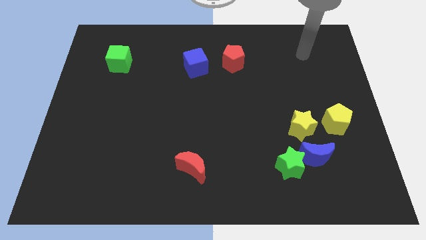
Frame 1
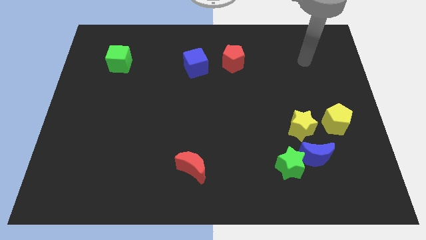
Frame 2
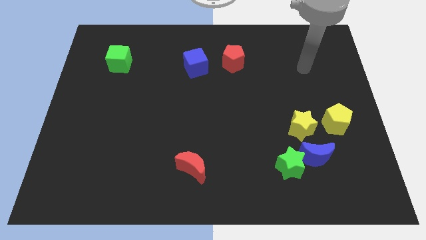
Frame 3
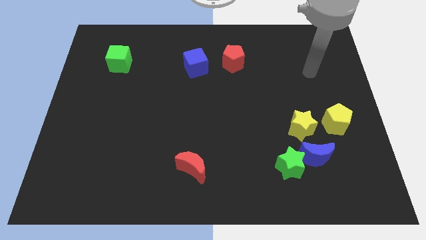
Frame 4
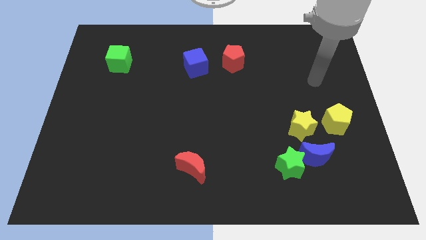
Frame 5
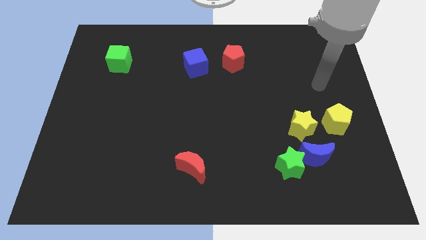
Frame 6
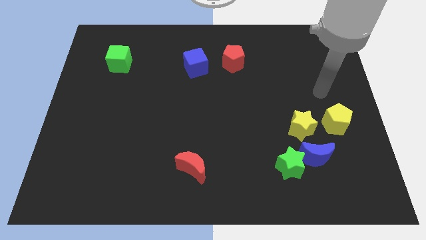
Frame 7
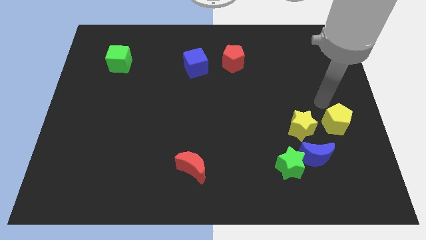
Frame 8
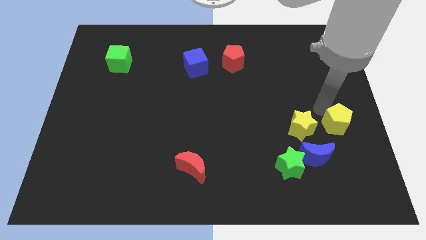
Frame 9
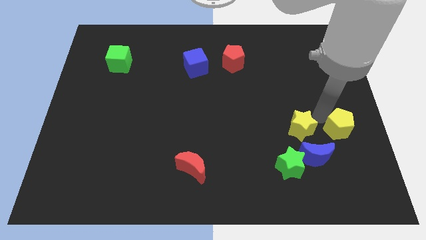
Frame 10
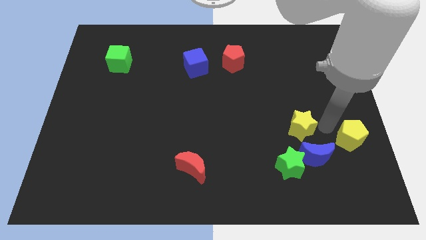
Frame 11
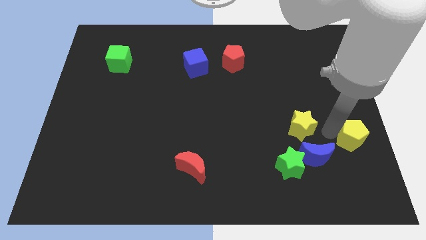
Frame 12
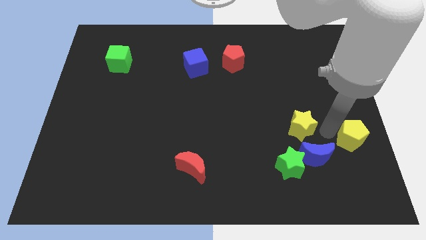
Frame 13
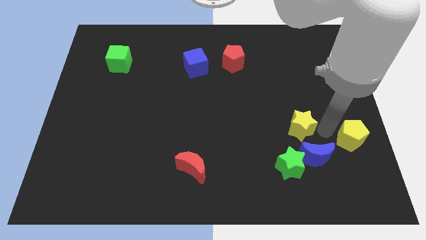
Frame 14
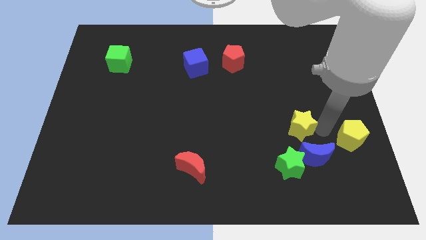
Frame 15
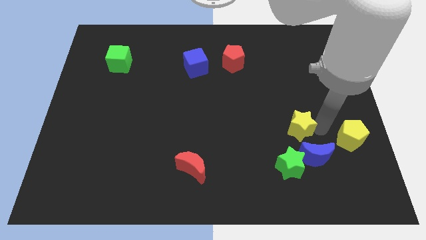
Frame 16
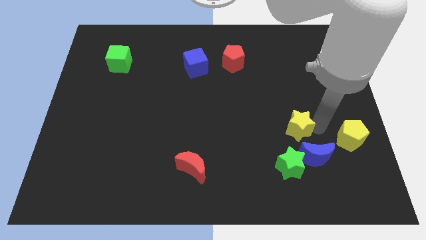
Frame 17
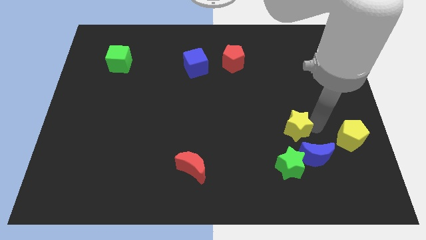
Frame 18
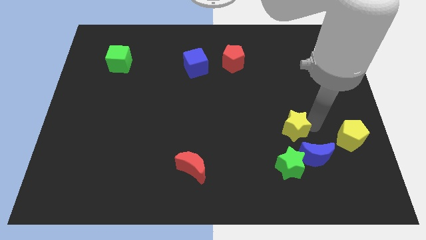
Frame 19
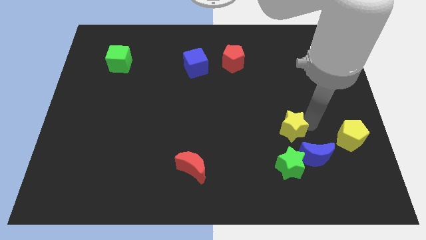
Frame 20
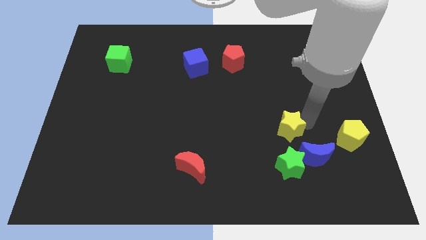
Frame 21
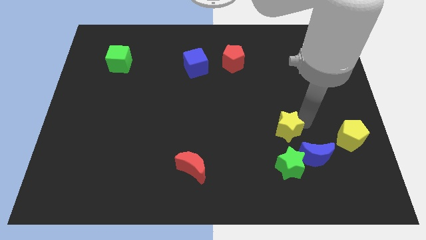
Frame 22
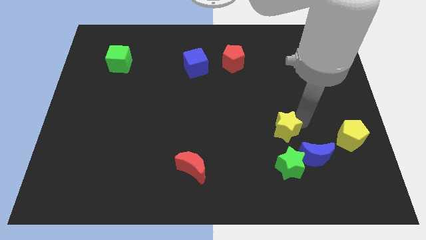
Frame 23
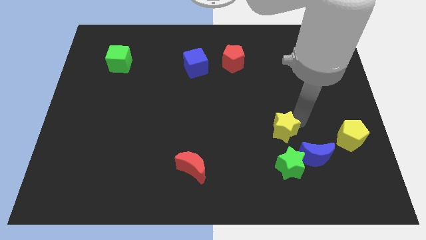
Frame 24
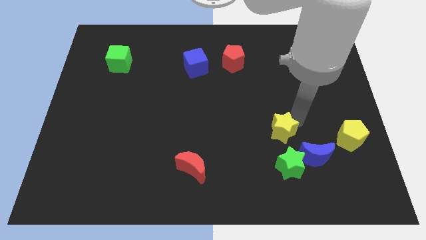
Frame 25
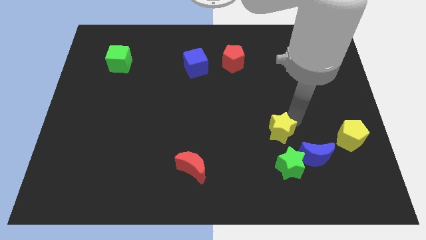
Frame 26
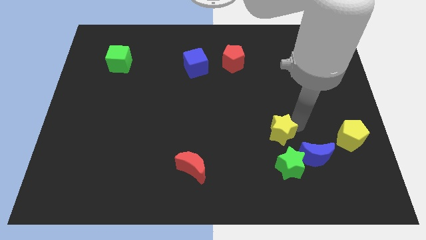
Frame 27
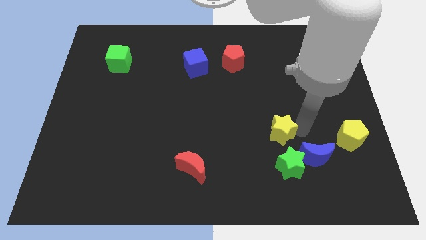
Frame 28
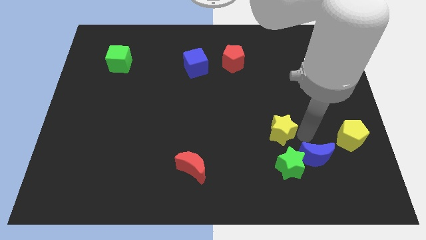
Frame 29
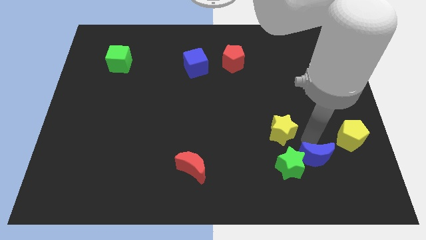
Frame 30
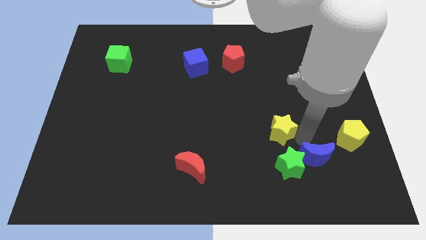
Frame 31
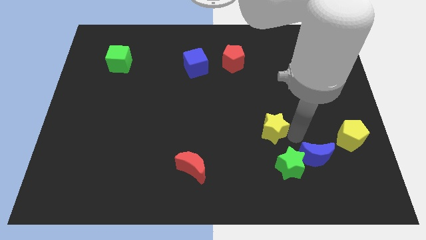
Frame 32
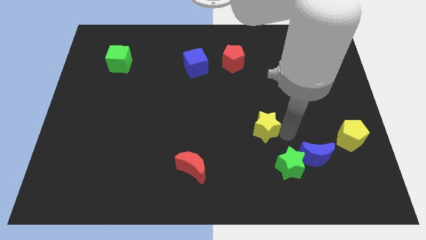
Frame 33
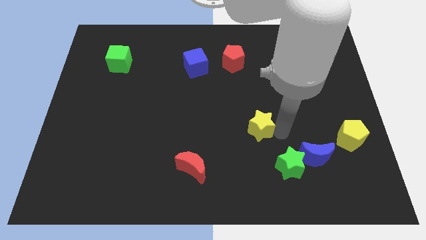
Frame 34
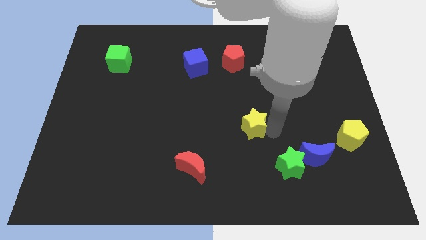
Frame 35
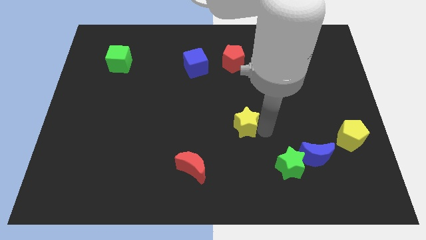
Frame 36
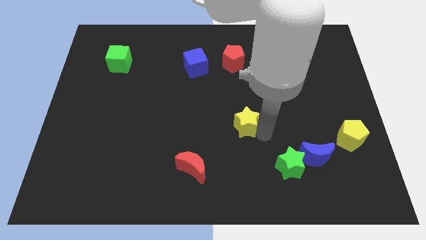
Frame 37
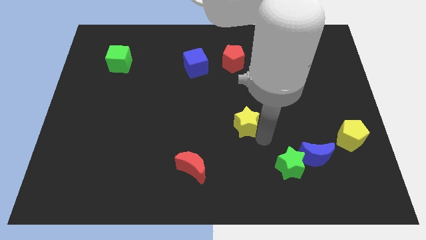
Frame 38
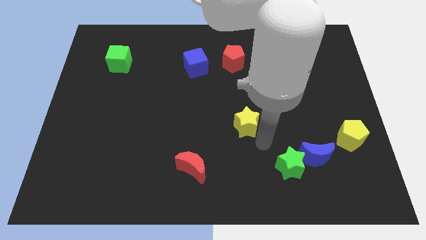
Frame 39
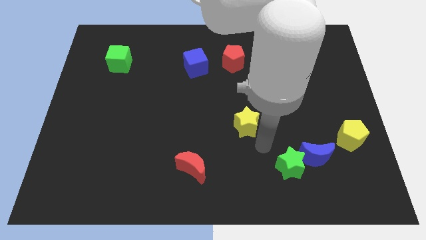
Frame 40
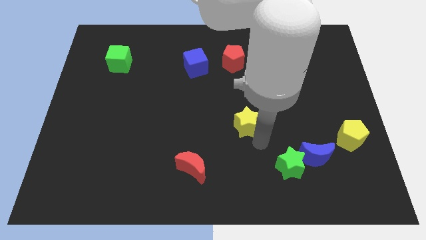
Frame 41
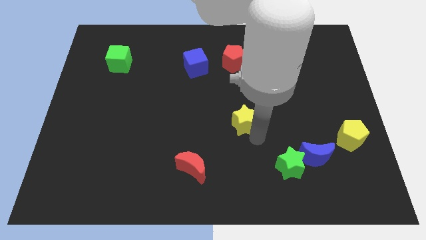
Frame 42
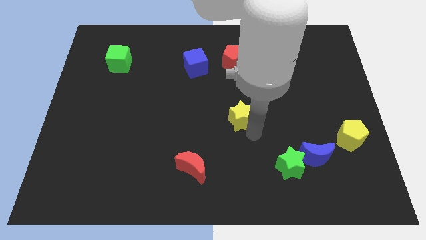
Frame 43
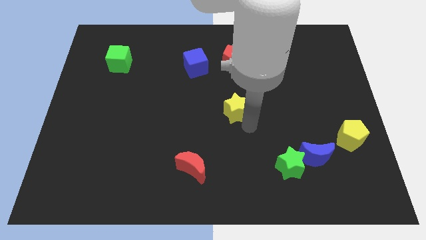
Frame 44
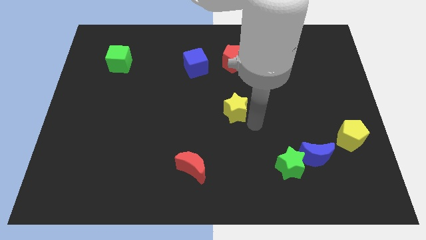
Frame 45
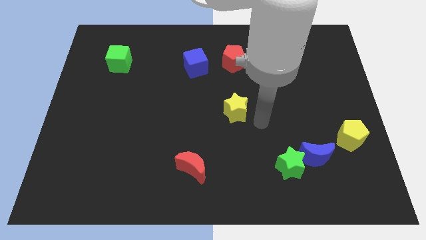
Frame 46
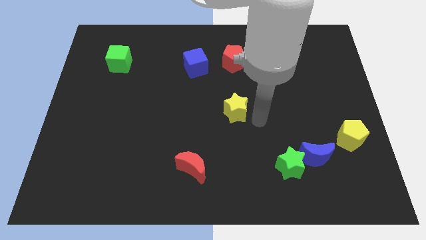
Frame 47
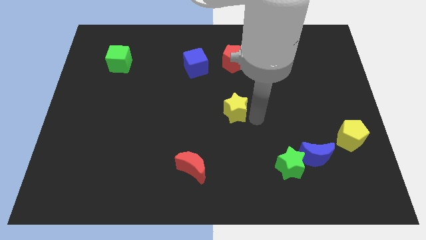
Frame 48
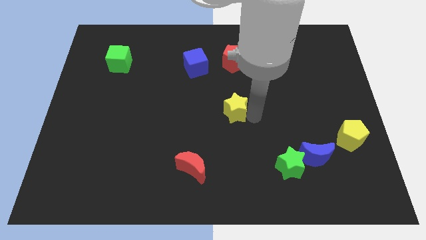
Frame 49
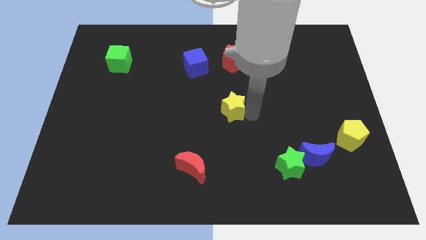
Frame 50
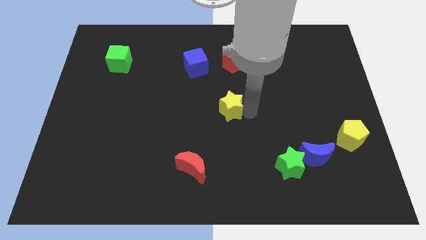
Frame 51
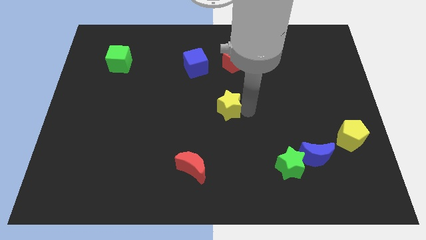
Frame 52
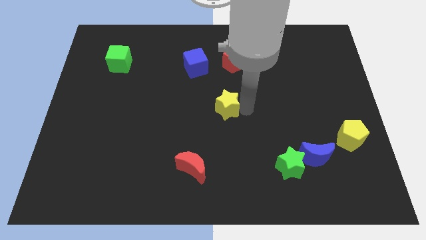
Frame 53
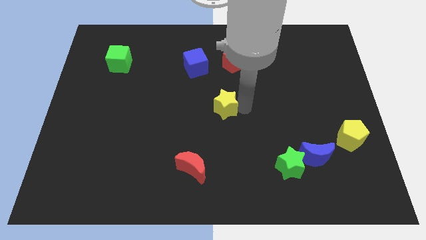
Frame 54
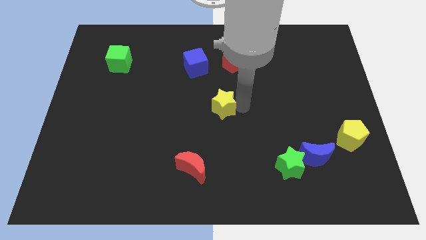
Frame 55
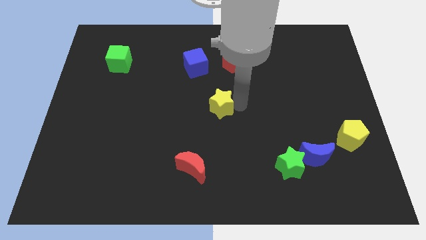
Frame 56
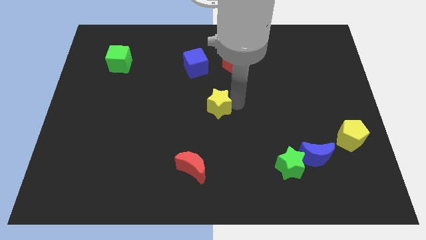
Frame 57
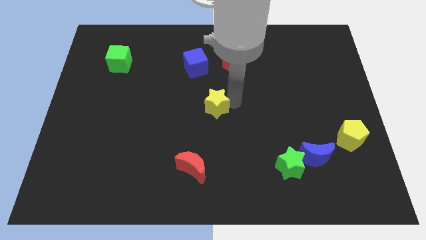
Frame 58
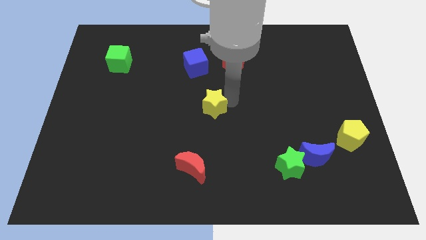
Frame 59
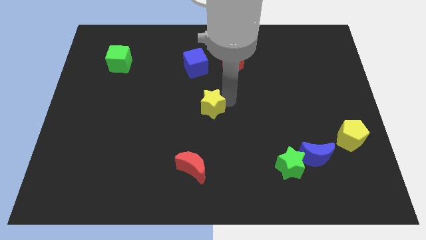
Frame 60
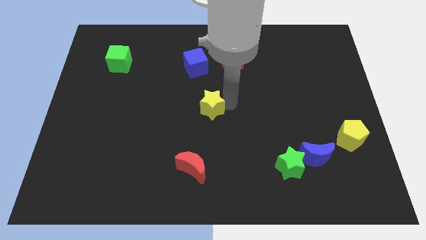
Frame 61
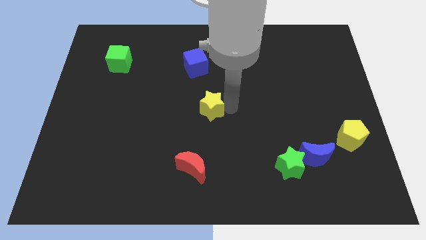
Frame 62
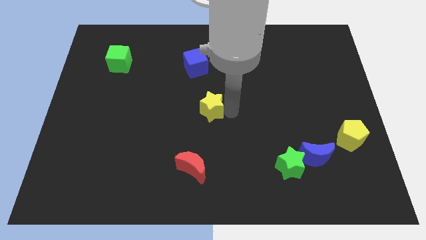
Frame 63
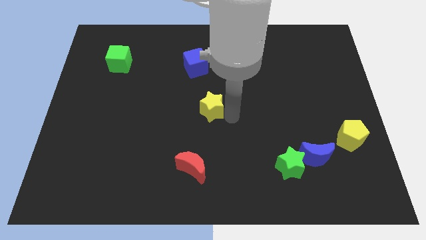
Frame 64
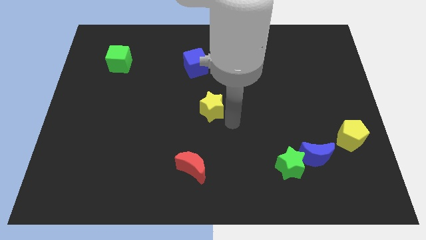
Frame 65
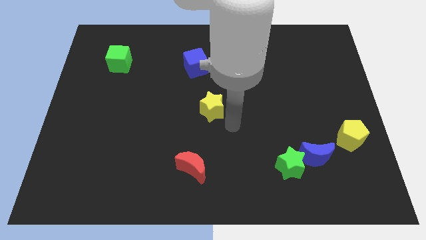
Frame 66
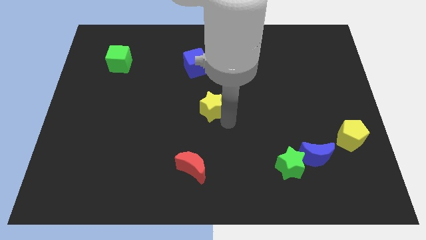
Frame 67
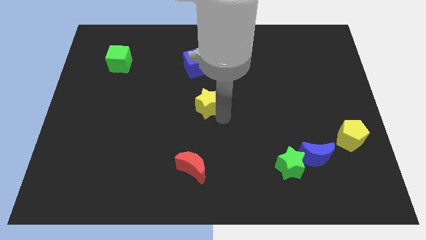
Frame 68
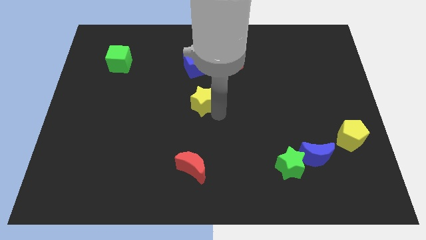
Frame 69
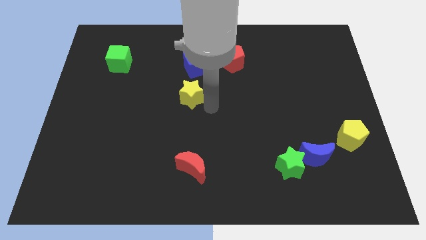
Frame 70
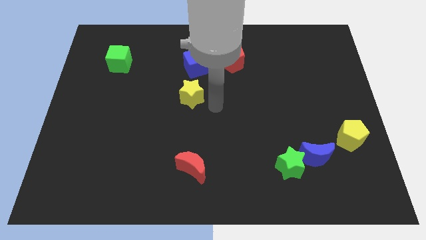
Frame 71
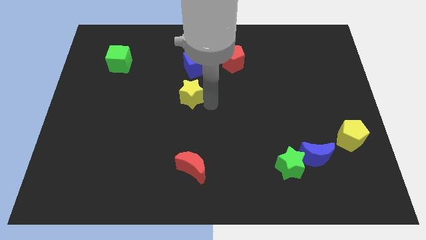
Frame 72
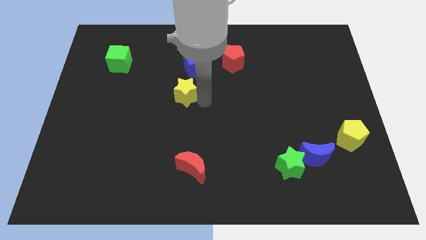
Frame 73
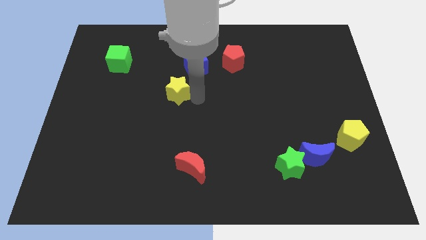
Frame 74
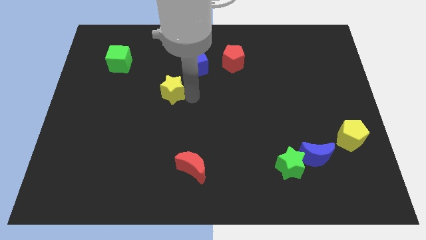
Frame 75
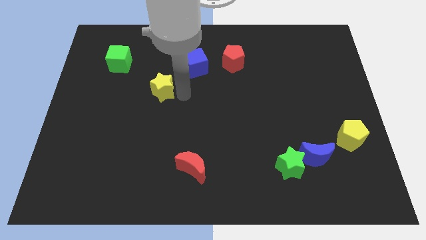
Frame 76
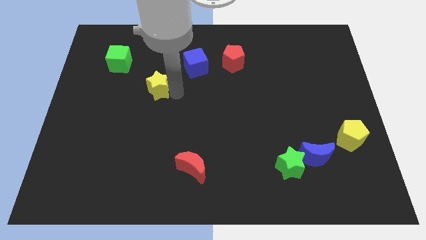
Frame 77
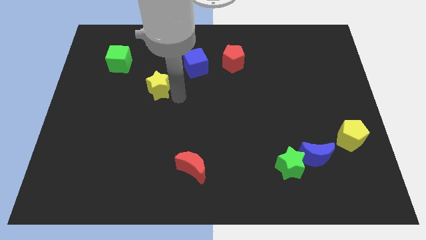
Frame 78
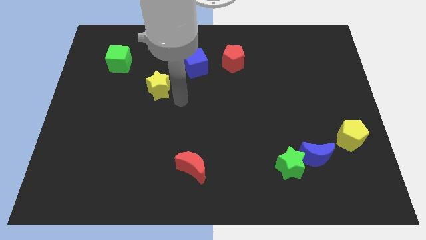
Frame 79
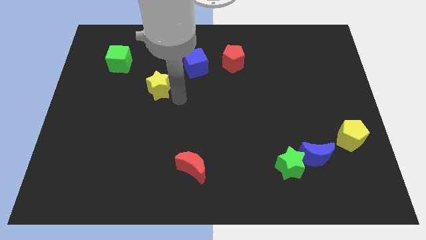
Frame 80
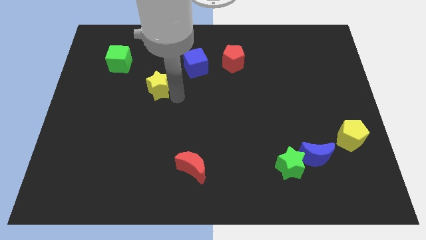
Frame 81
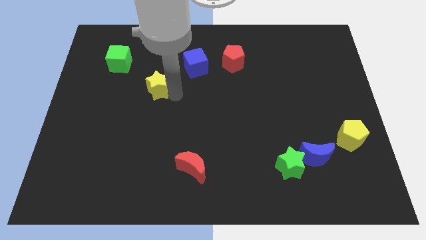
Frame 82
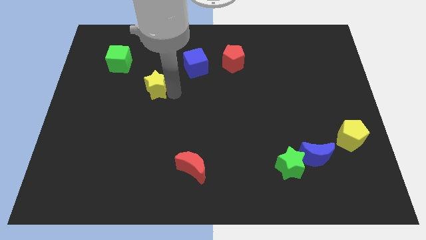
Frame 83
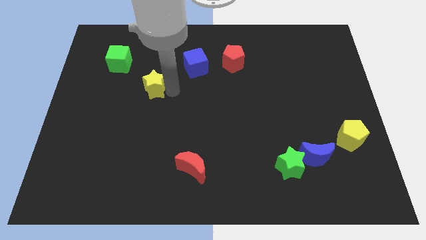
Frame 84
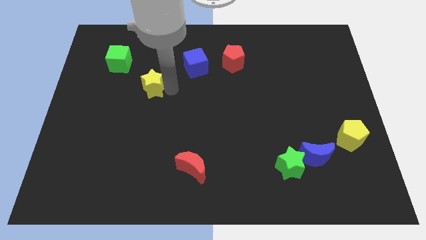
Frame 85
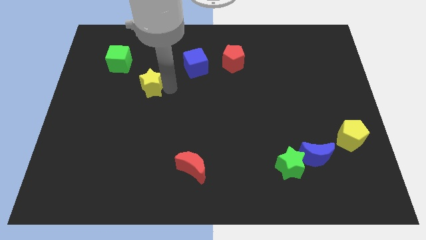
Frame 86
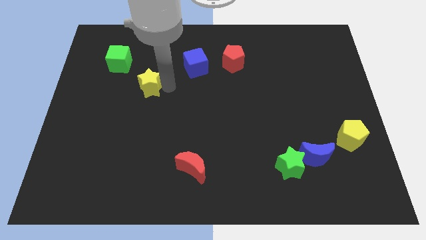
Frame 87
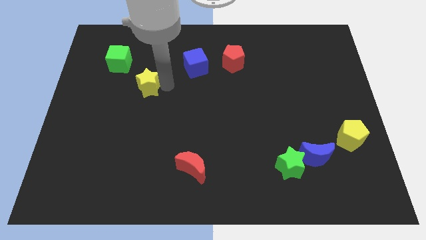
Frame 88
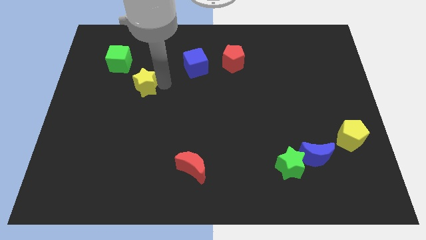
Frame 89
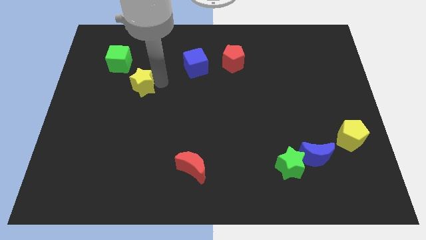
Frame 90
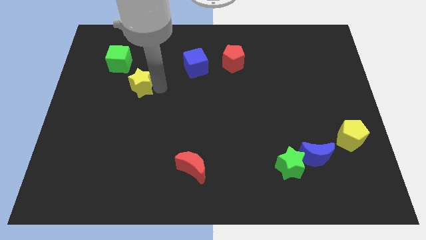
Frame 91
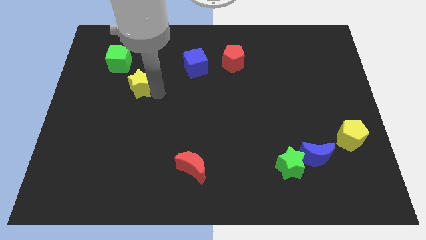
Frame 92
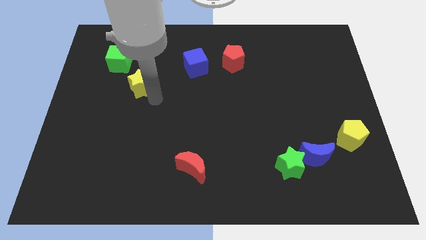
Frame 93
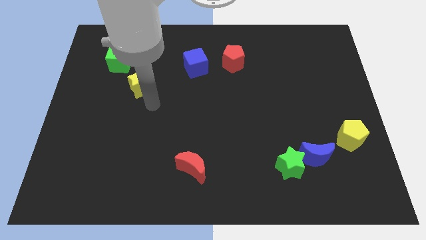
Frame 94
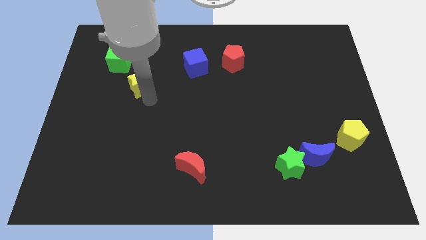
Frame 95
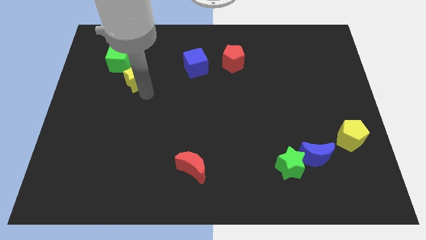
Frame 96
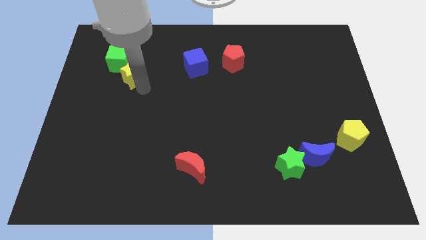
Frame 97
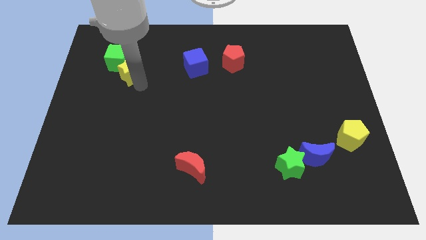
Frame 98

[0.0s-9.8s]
push the yellow star towards the green cube
